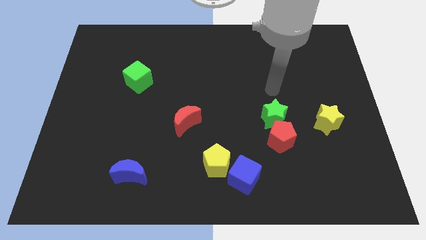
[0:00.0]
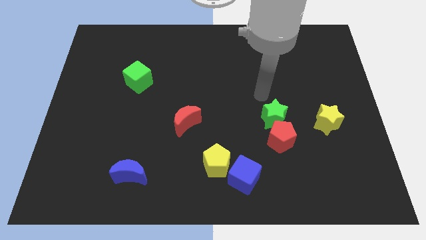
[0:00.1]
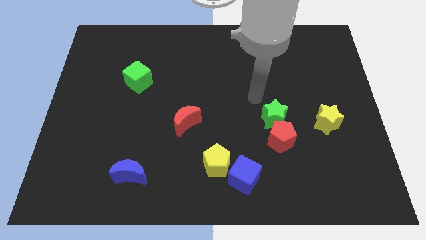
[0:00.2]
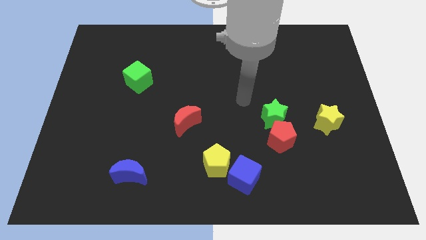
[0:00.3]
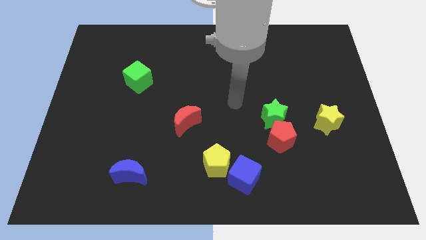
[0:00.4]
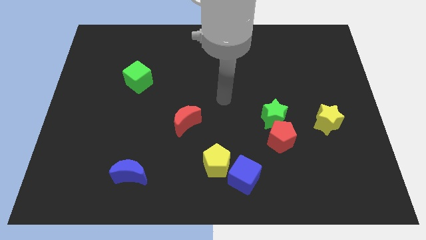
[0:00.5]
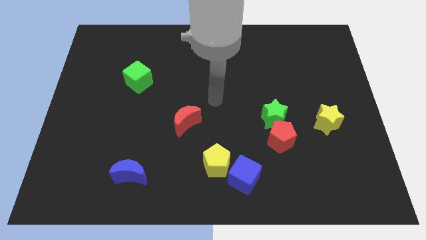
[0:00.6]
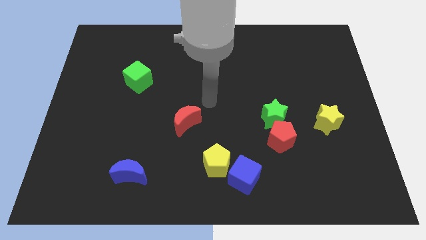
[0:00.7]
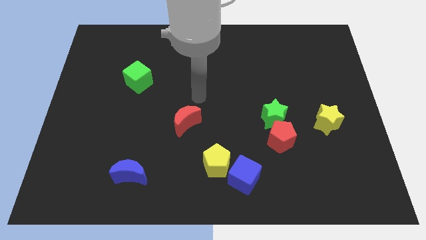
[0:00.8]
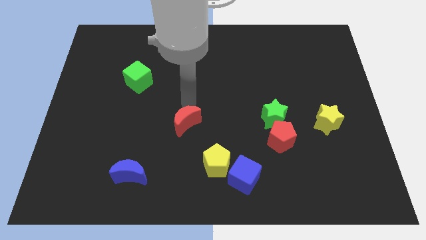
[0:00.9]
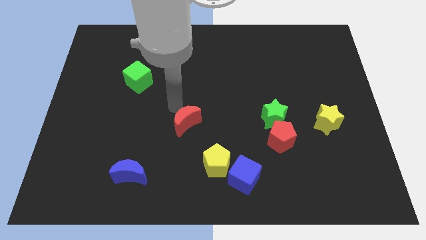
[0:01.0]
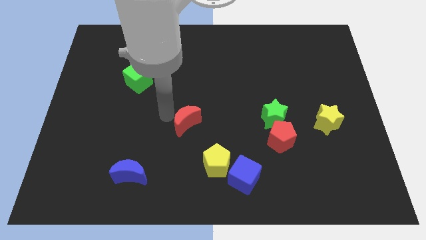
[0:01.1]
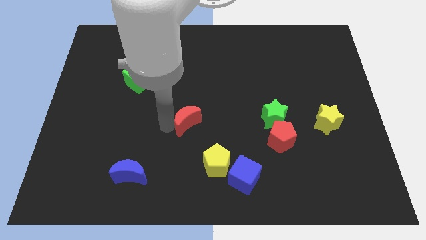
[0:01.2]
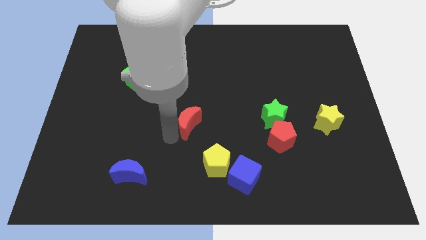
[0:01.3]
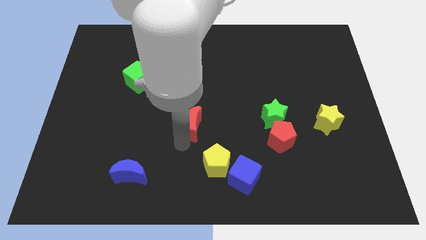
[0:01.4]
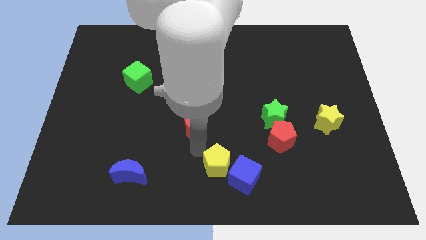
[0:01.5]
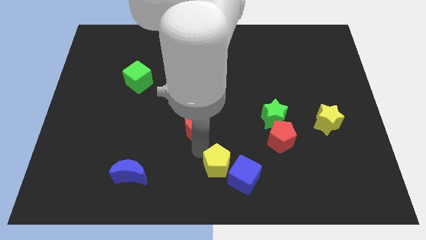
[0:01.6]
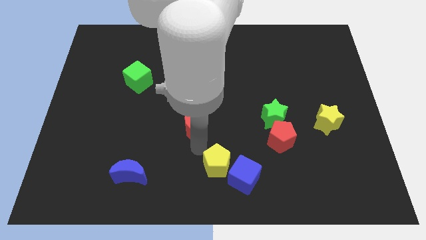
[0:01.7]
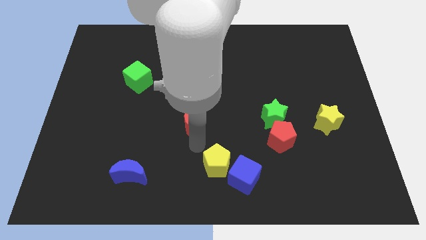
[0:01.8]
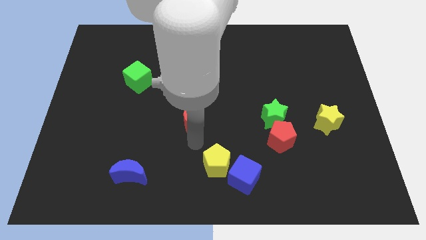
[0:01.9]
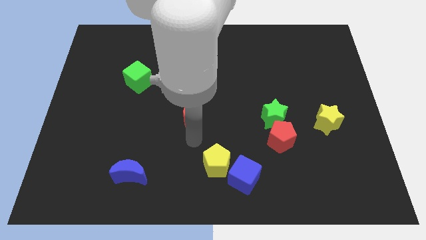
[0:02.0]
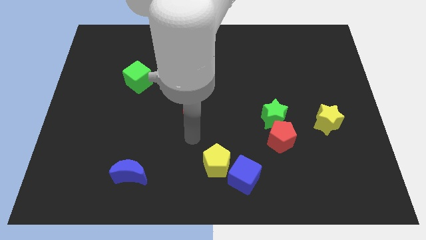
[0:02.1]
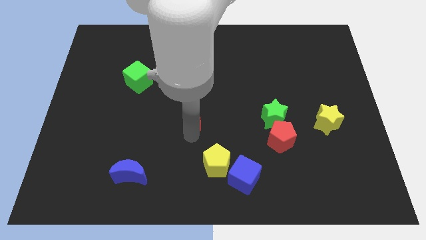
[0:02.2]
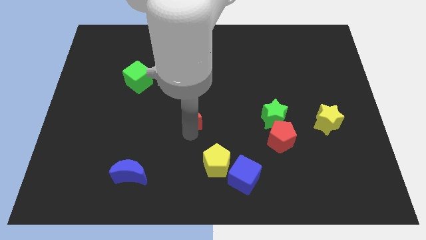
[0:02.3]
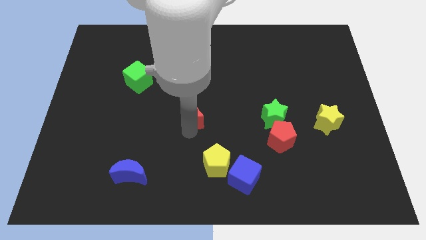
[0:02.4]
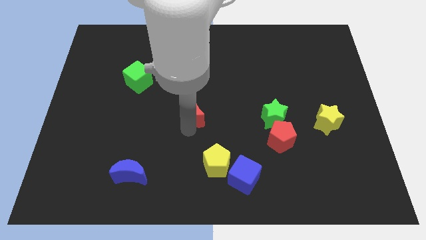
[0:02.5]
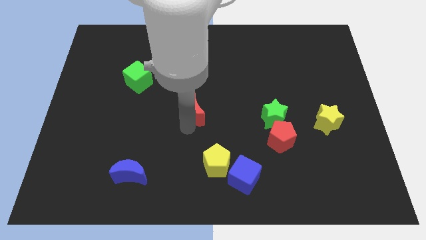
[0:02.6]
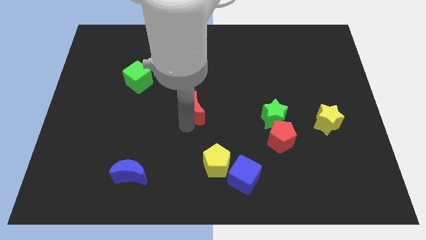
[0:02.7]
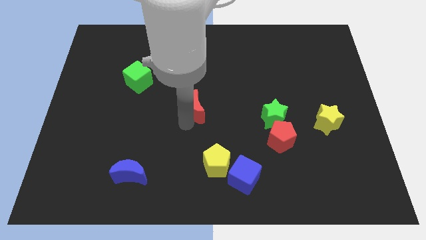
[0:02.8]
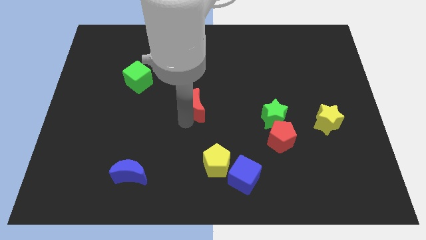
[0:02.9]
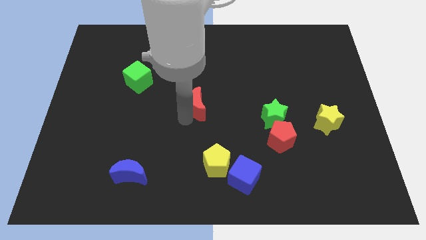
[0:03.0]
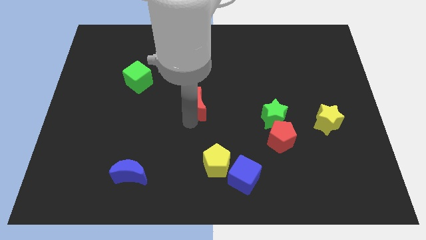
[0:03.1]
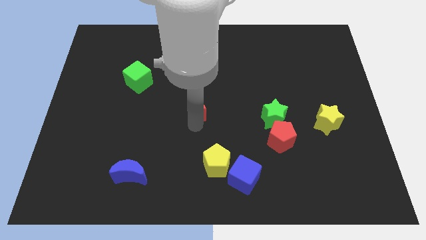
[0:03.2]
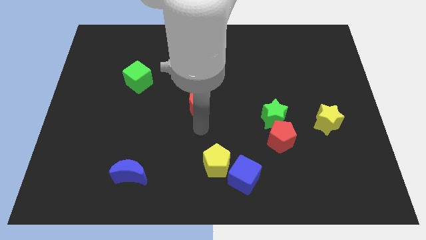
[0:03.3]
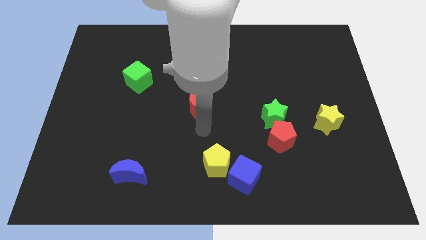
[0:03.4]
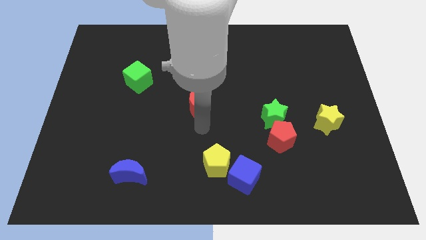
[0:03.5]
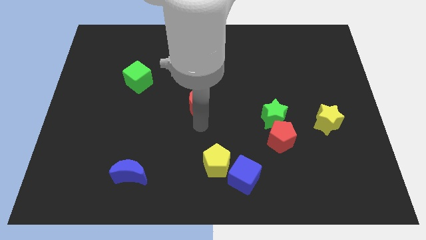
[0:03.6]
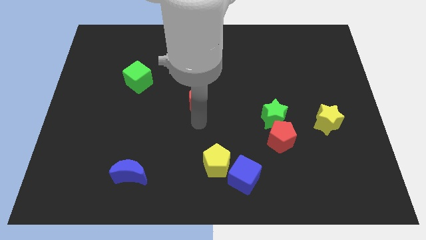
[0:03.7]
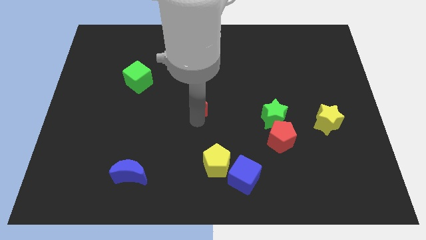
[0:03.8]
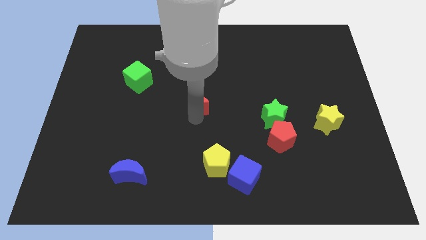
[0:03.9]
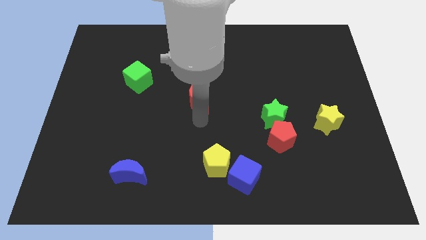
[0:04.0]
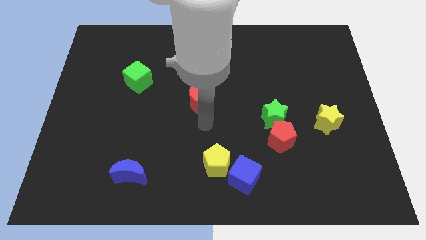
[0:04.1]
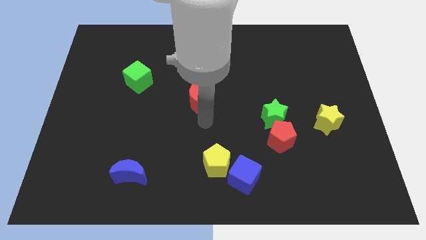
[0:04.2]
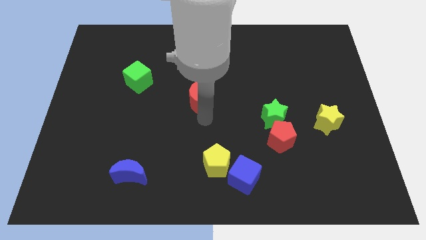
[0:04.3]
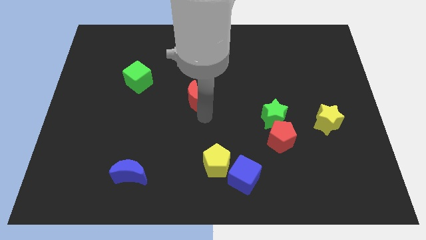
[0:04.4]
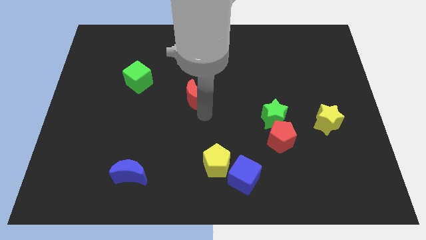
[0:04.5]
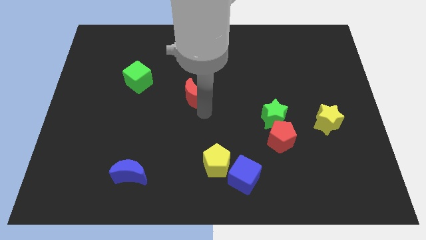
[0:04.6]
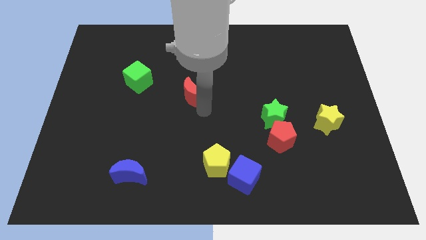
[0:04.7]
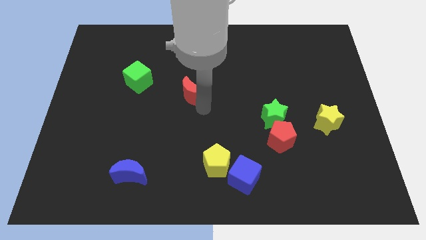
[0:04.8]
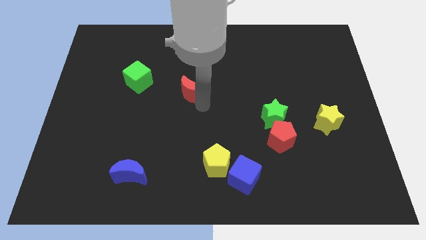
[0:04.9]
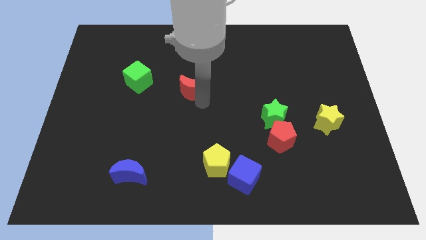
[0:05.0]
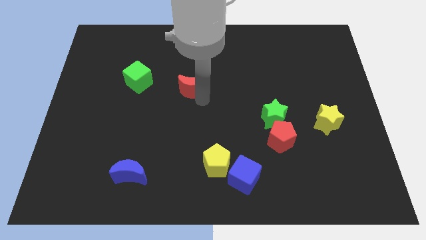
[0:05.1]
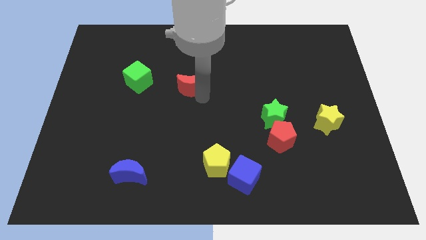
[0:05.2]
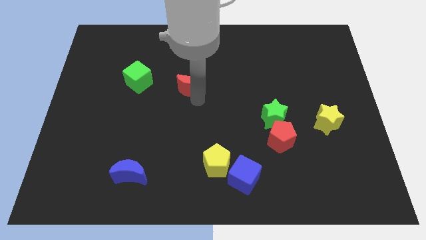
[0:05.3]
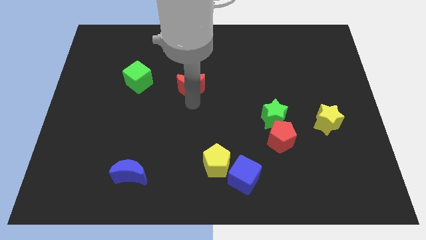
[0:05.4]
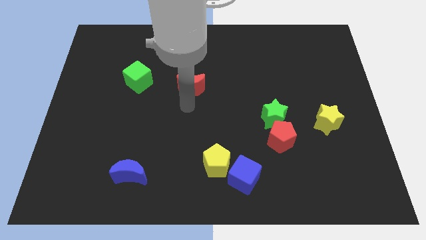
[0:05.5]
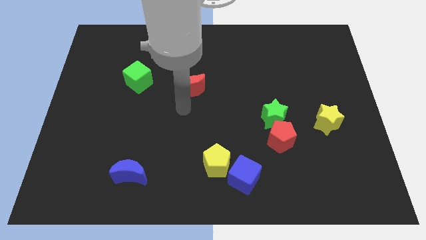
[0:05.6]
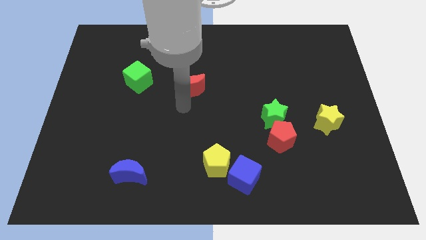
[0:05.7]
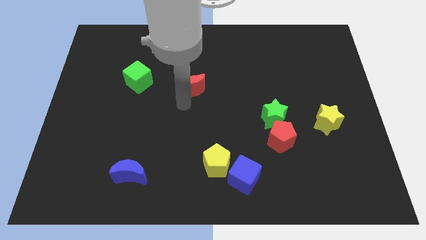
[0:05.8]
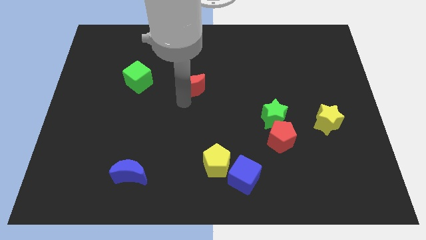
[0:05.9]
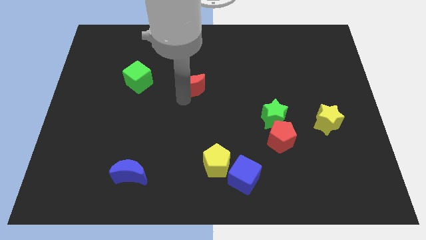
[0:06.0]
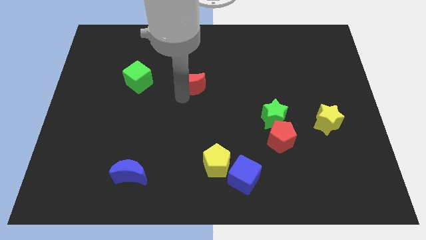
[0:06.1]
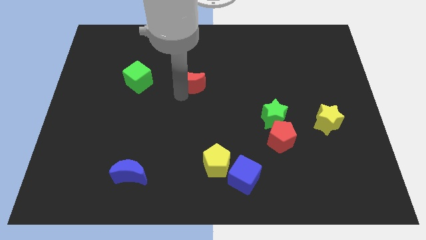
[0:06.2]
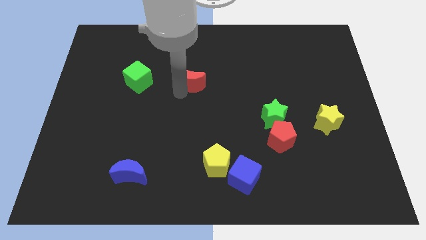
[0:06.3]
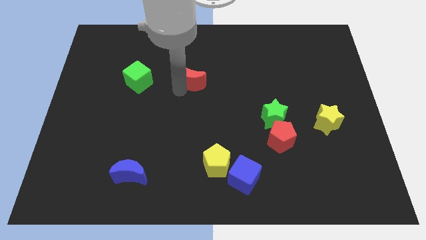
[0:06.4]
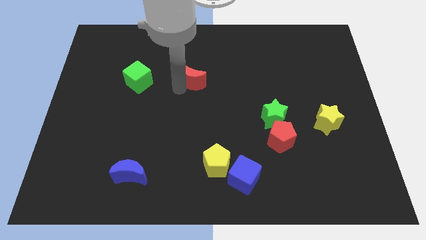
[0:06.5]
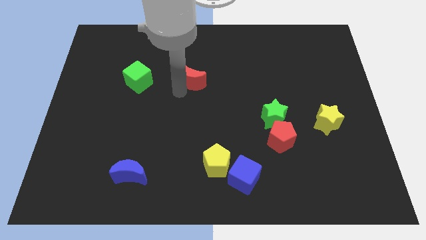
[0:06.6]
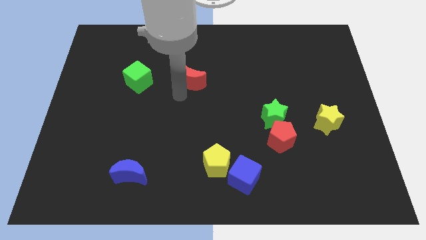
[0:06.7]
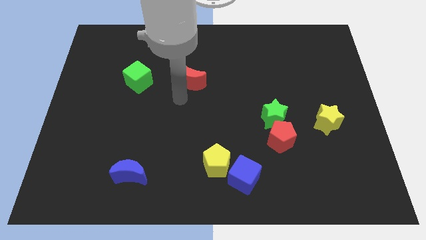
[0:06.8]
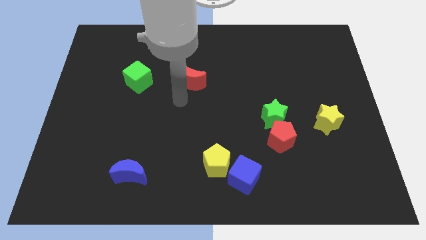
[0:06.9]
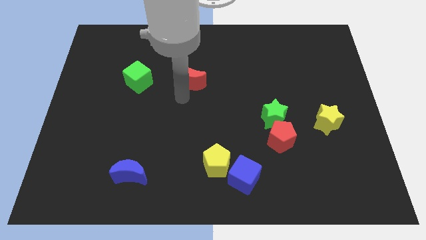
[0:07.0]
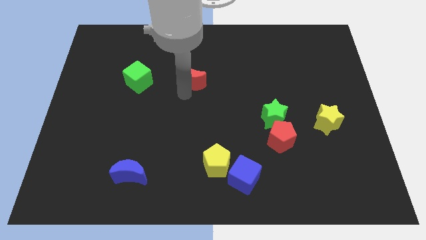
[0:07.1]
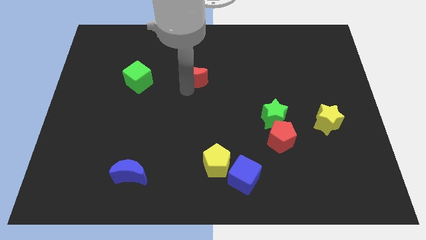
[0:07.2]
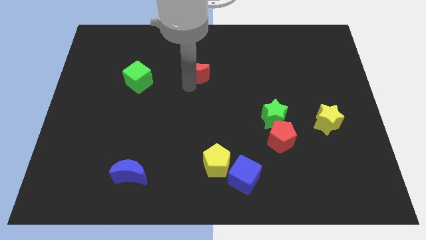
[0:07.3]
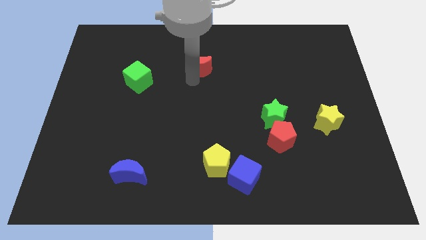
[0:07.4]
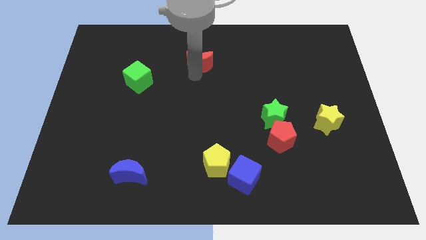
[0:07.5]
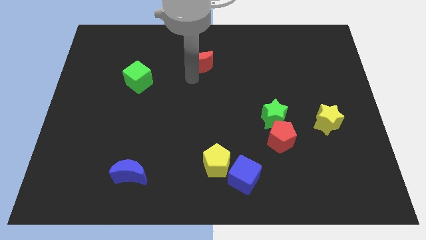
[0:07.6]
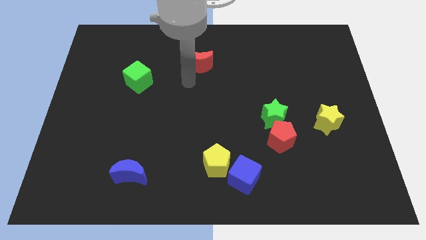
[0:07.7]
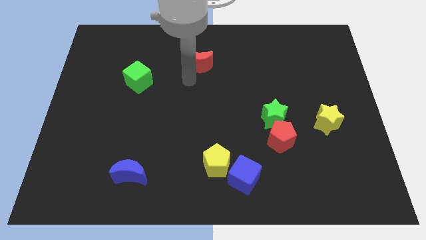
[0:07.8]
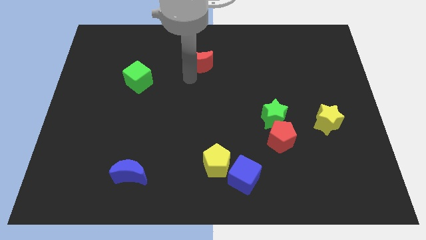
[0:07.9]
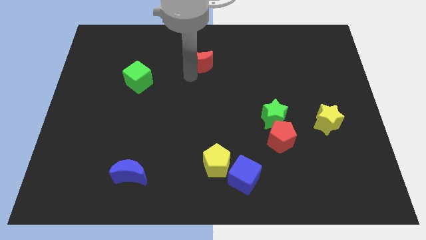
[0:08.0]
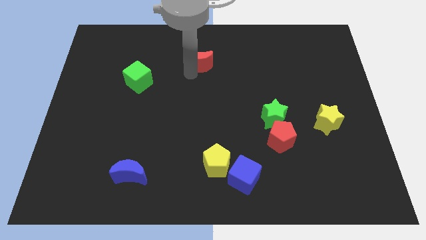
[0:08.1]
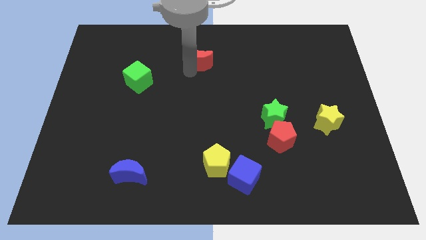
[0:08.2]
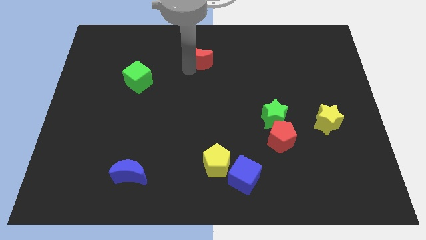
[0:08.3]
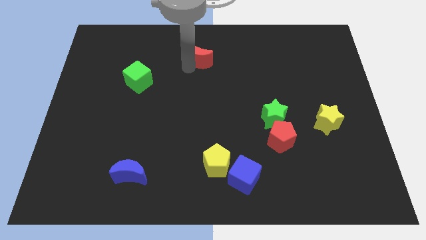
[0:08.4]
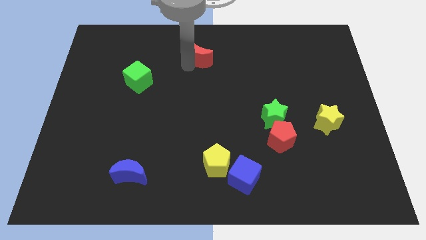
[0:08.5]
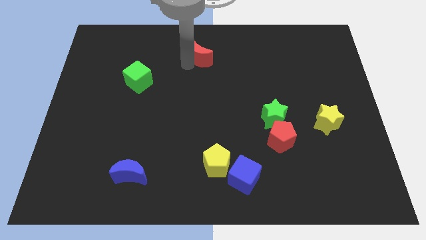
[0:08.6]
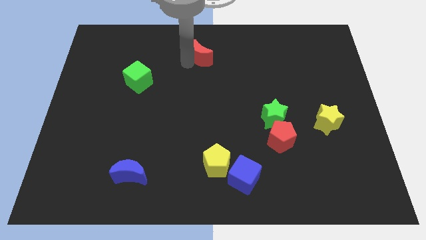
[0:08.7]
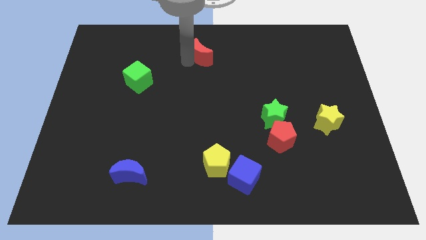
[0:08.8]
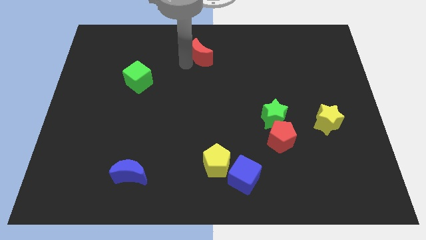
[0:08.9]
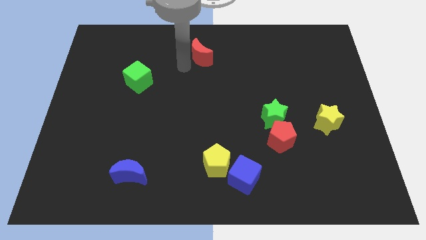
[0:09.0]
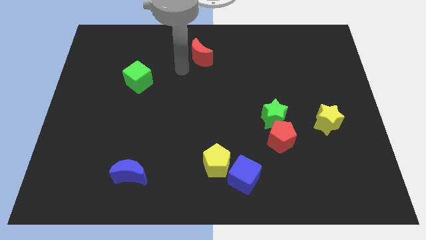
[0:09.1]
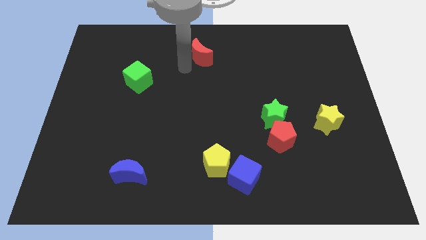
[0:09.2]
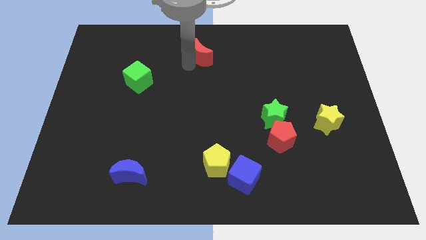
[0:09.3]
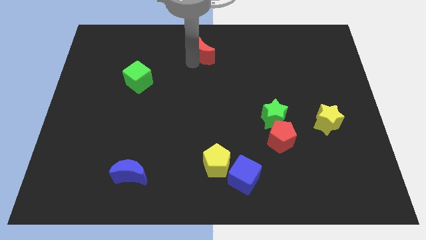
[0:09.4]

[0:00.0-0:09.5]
slide the red moon to the top
